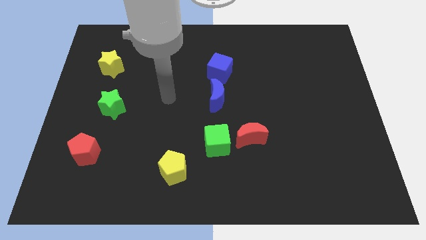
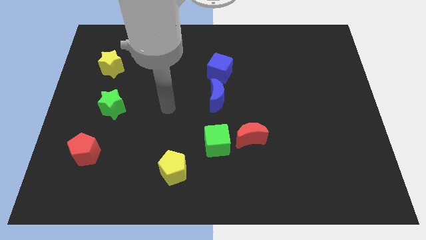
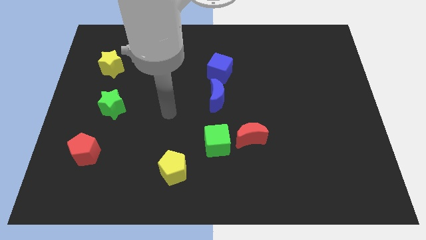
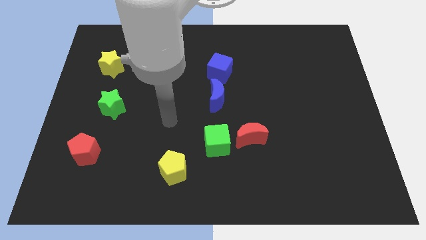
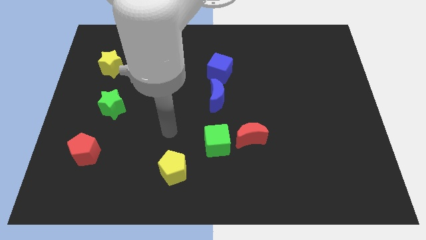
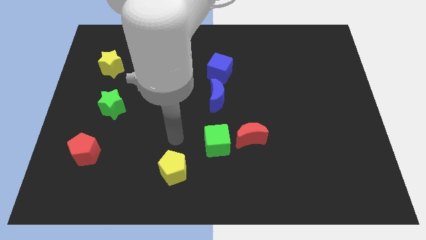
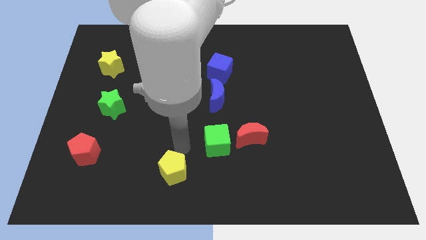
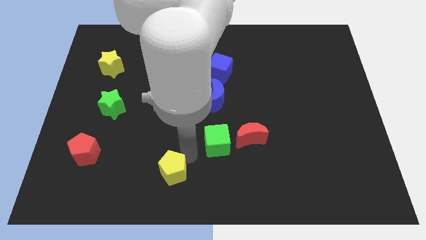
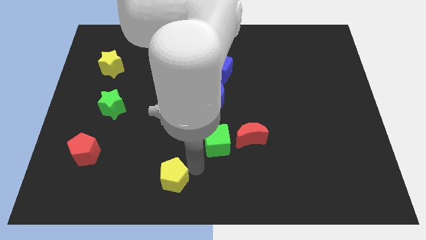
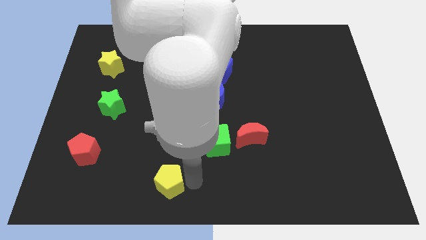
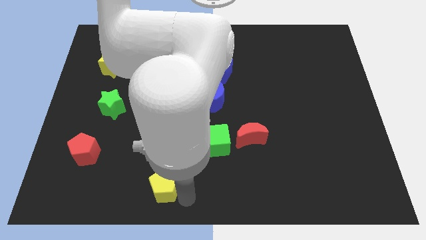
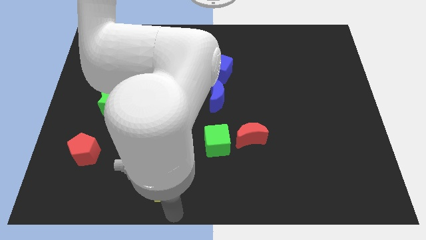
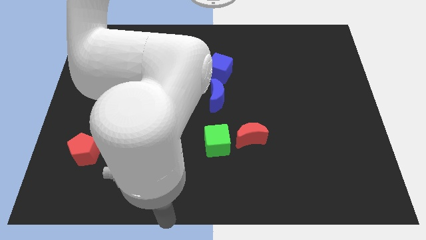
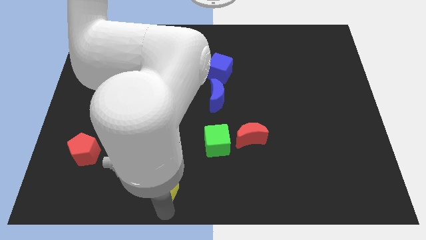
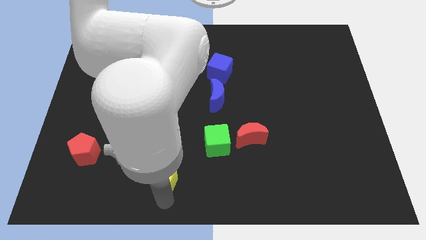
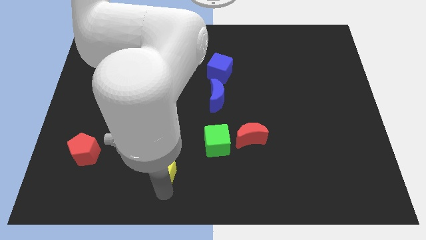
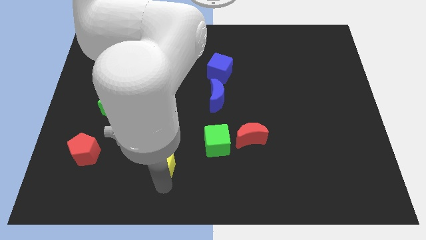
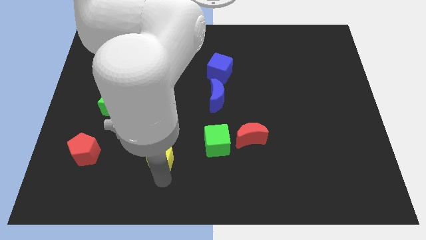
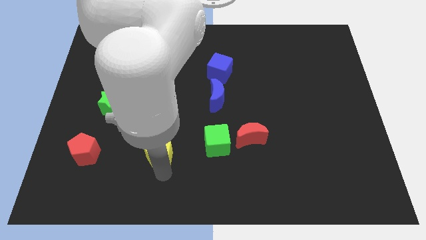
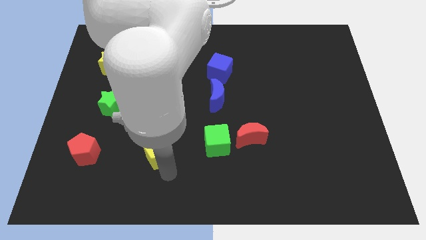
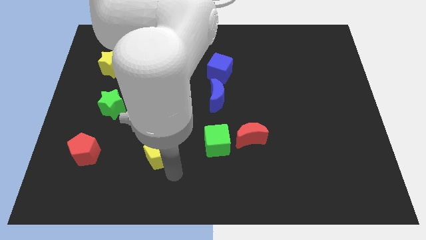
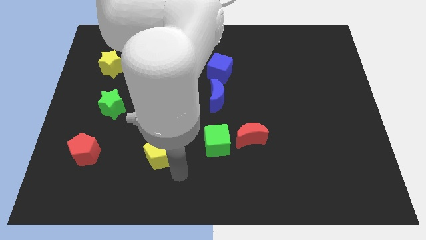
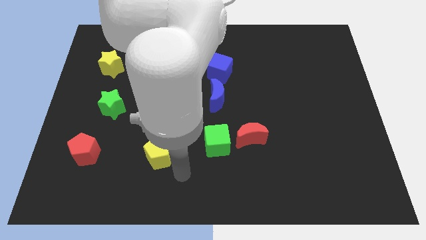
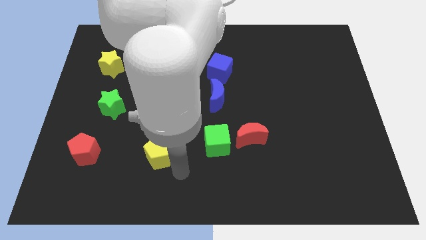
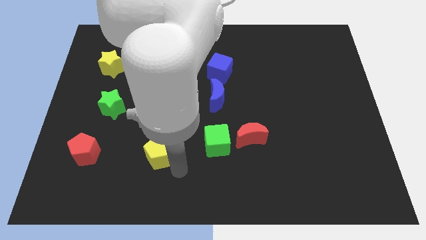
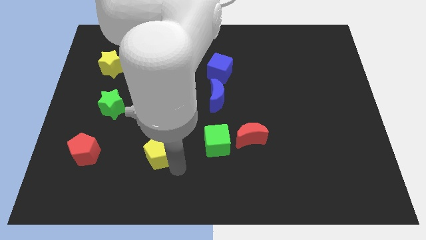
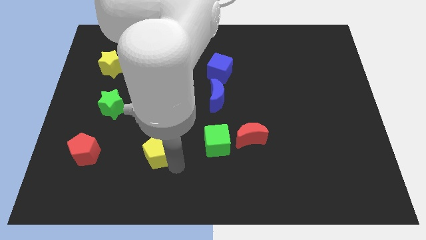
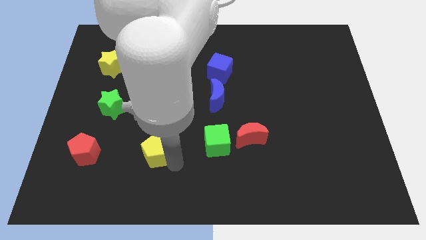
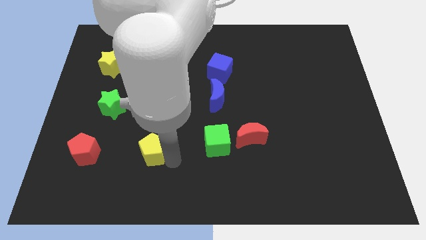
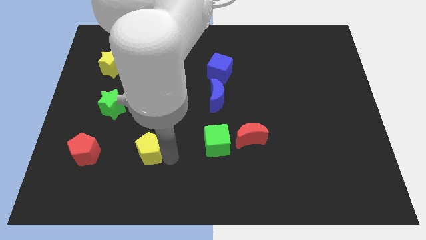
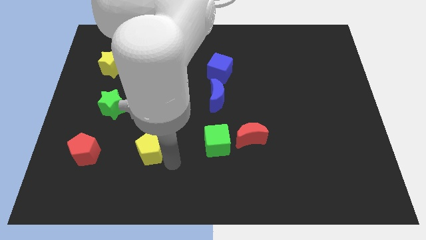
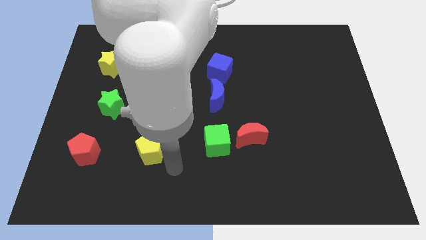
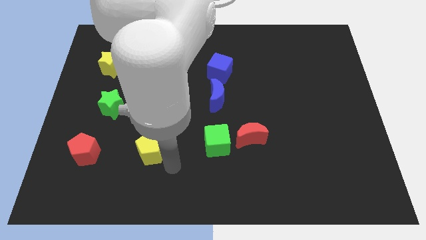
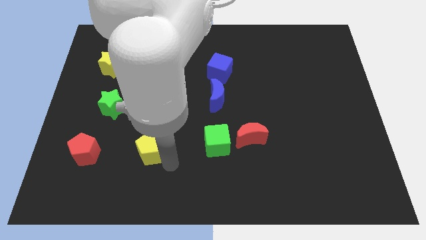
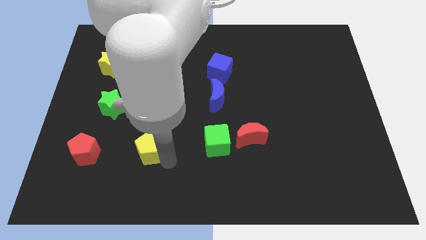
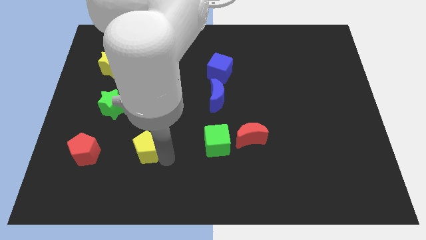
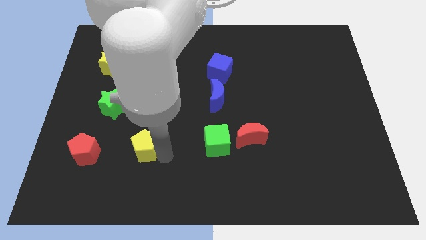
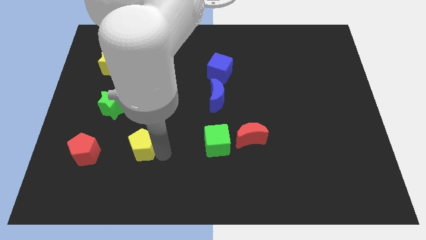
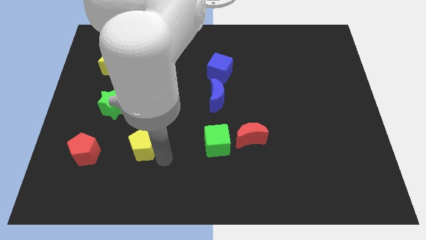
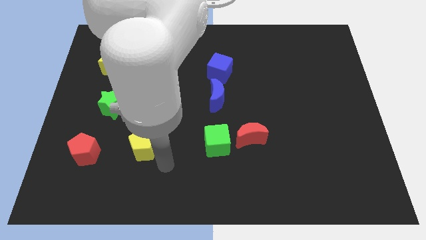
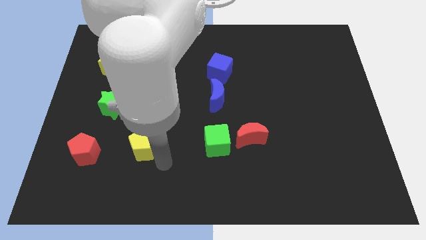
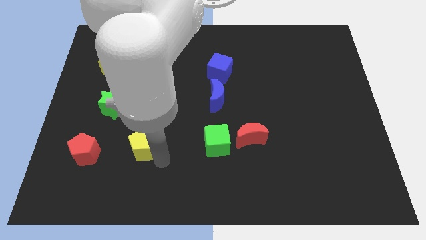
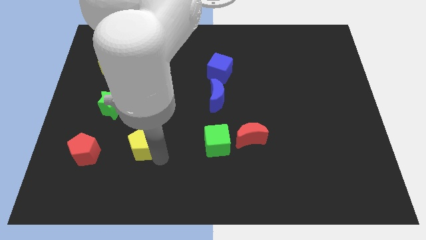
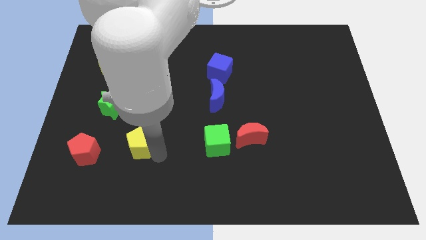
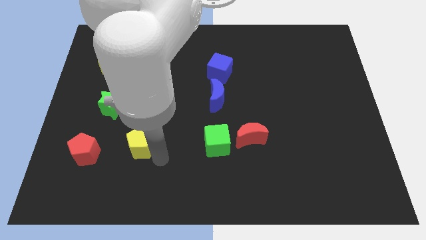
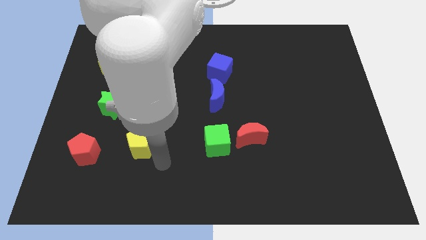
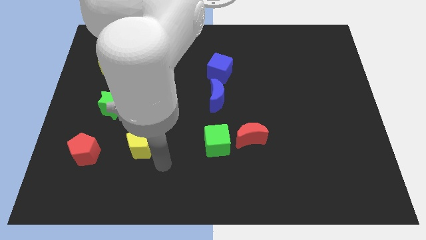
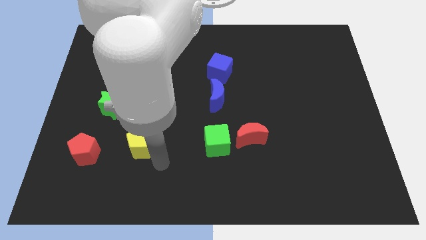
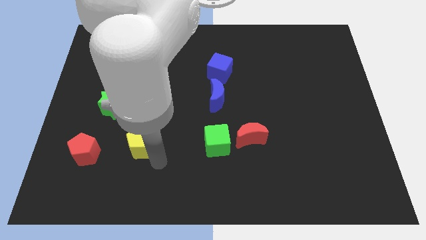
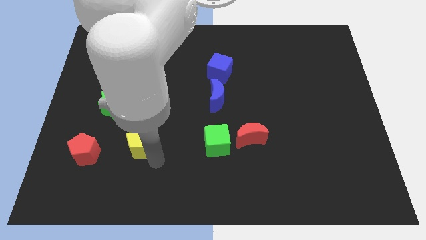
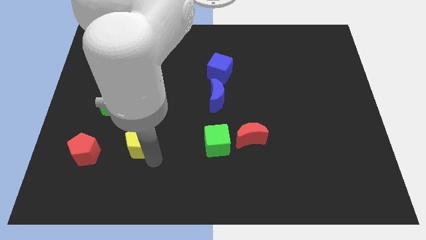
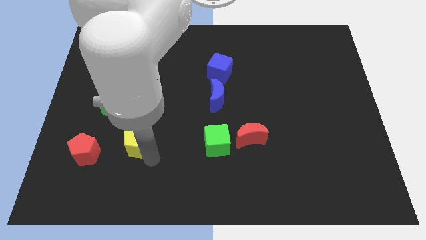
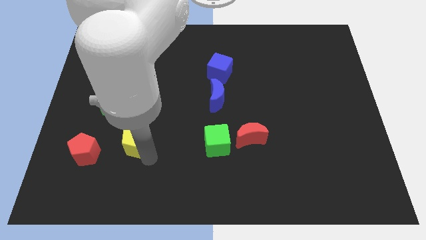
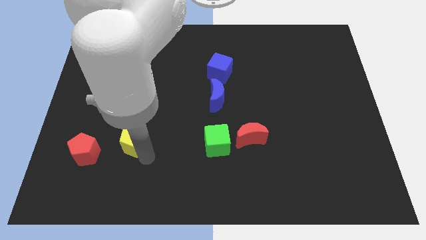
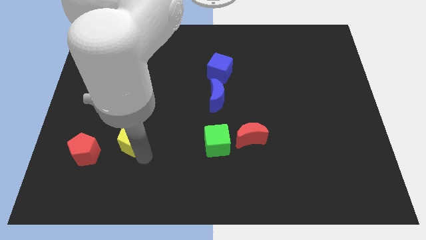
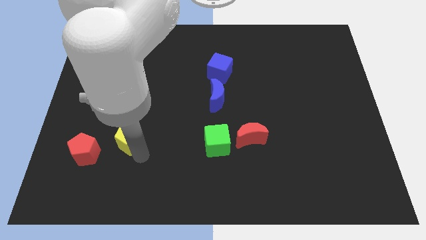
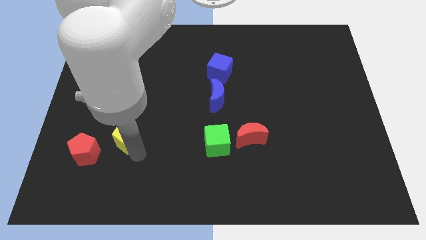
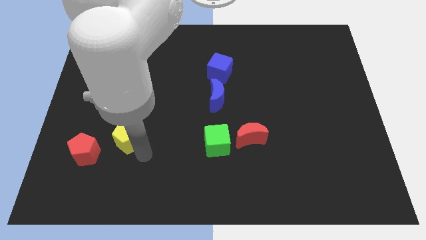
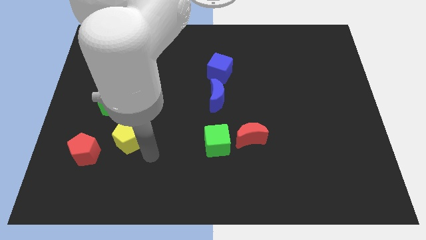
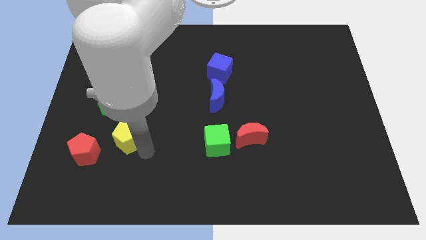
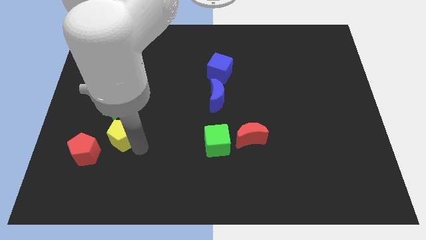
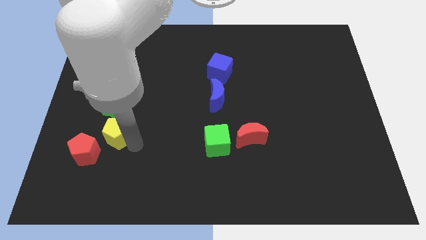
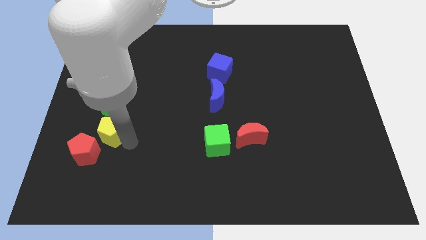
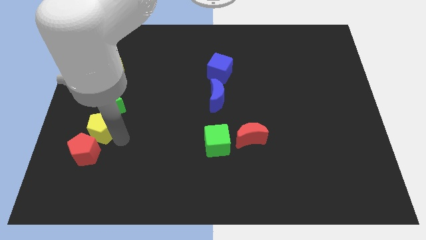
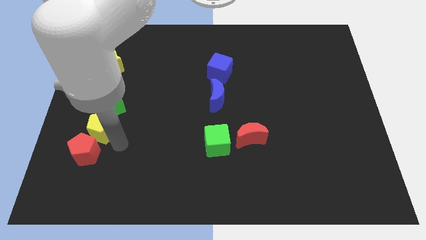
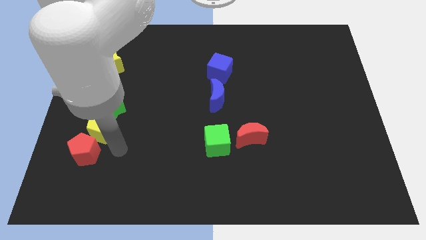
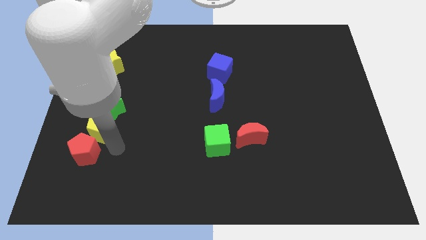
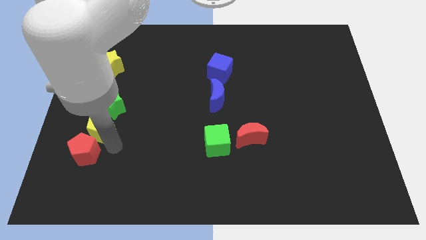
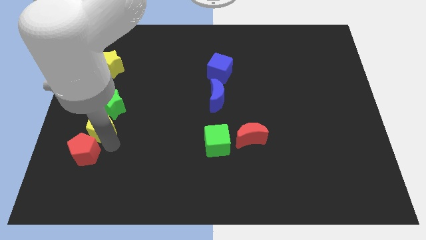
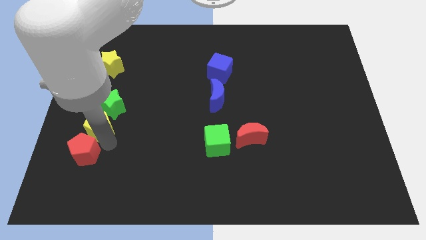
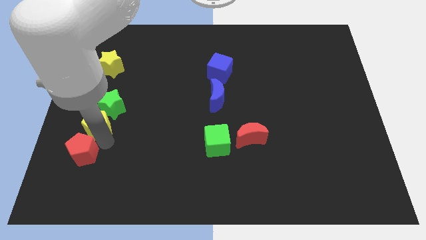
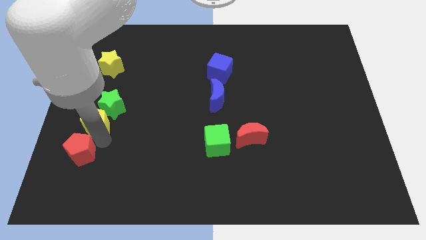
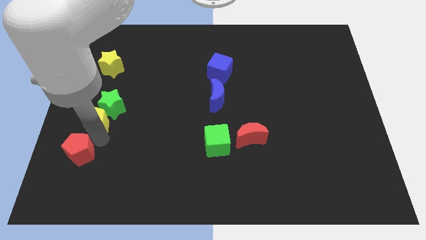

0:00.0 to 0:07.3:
move the yellow pentagon to the left side
